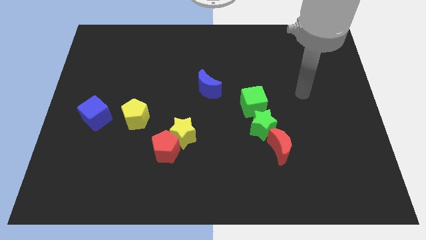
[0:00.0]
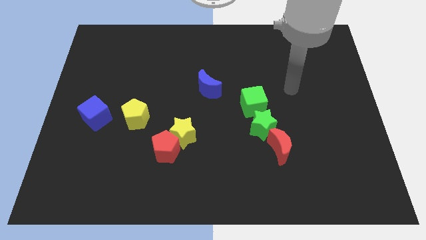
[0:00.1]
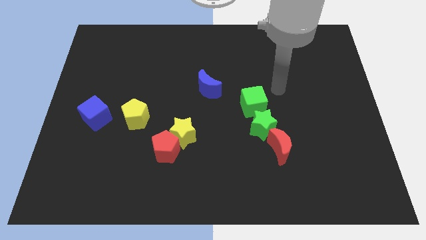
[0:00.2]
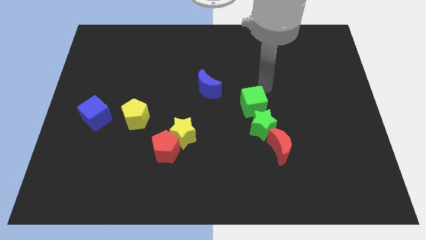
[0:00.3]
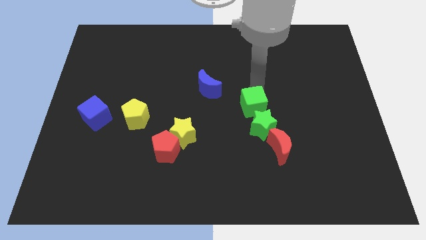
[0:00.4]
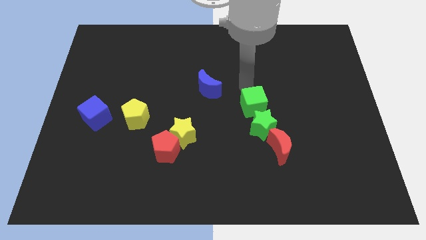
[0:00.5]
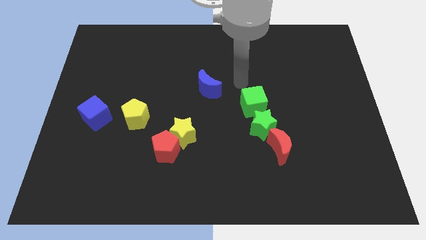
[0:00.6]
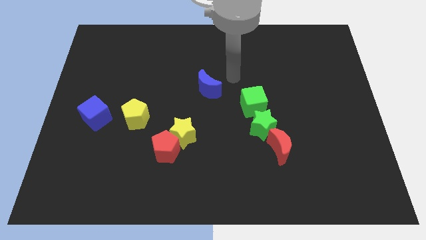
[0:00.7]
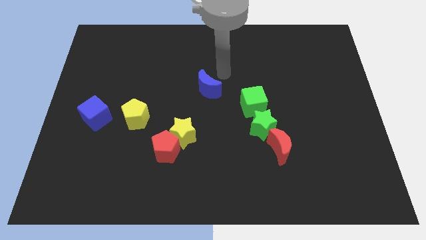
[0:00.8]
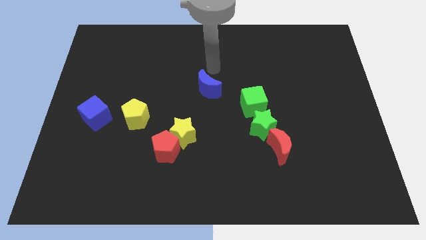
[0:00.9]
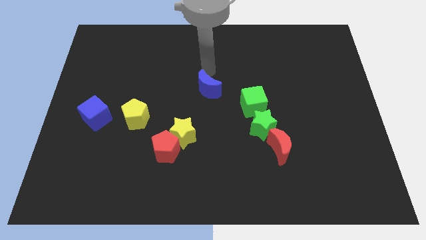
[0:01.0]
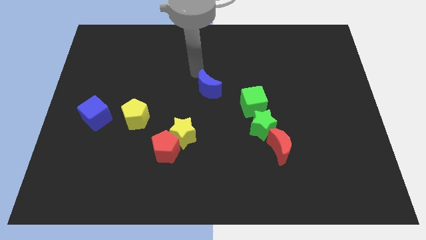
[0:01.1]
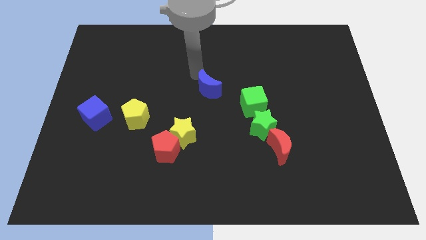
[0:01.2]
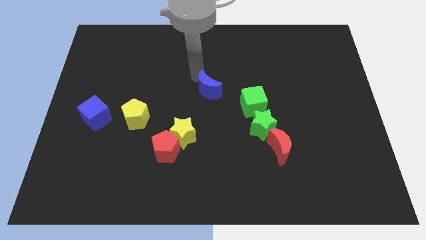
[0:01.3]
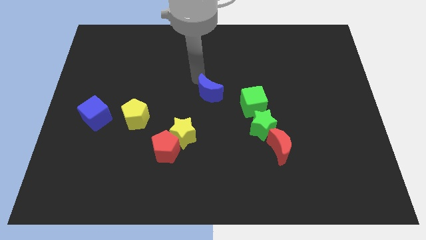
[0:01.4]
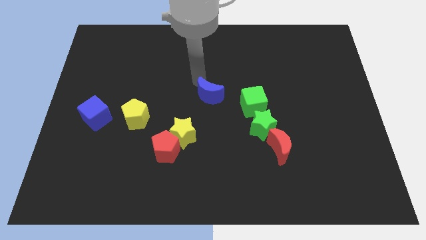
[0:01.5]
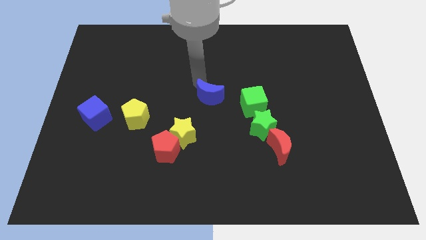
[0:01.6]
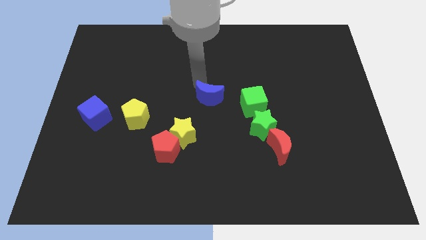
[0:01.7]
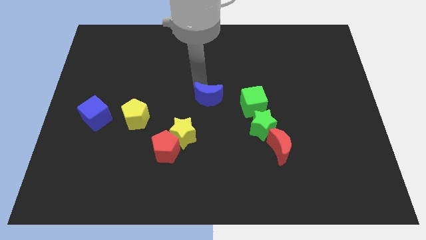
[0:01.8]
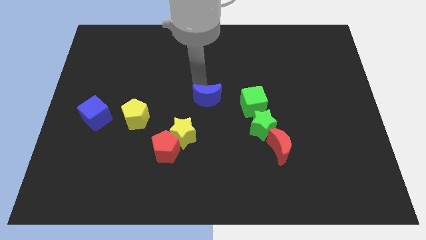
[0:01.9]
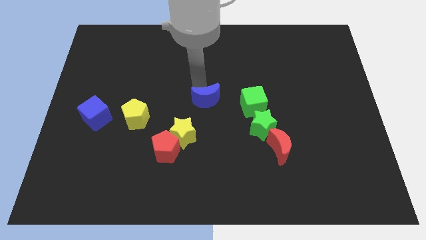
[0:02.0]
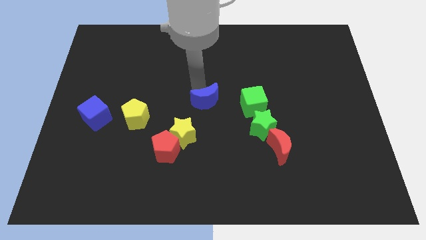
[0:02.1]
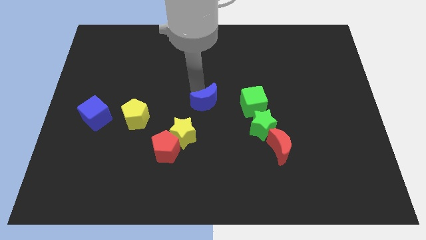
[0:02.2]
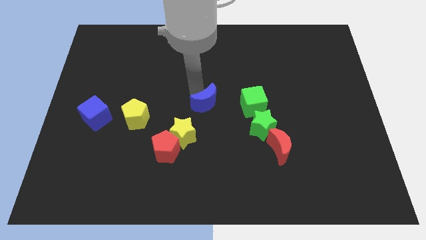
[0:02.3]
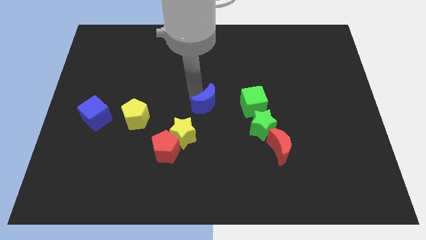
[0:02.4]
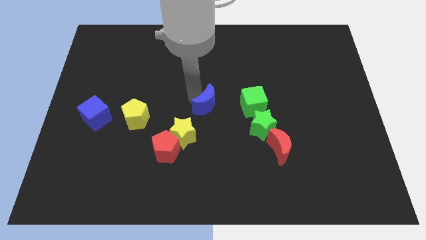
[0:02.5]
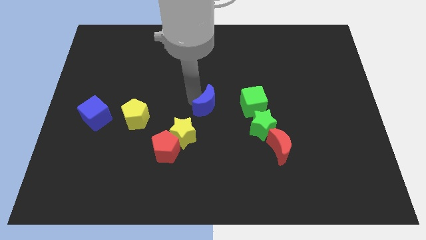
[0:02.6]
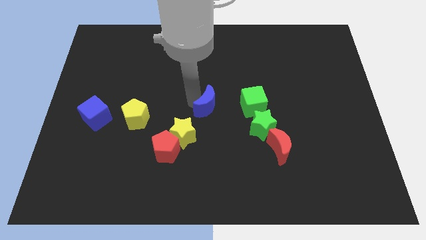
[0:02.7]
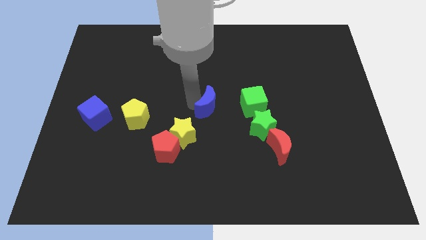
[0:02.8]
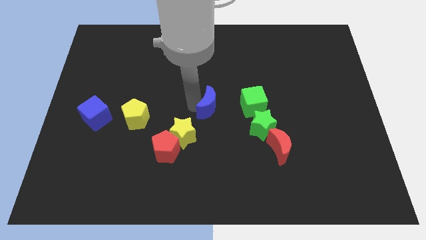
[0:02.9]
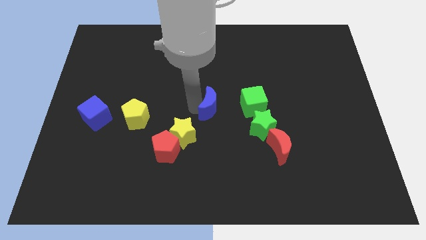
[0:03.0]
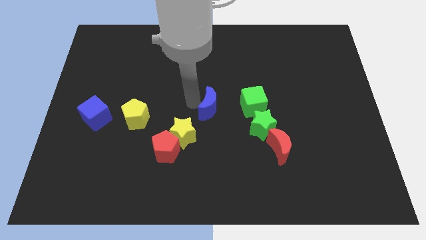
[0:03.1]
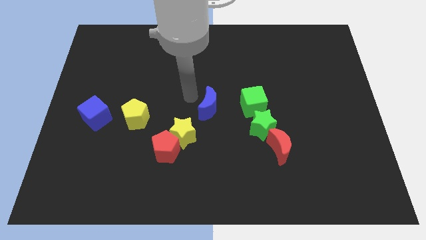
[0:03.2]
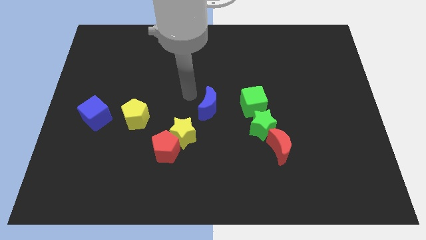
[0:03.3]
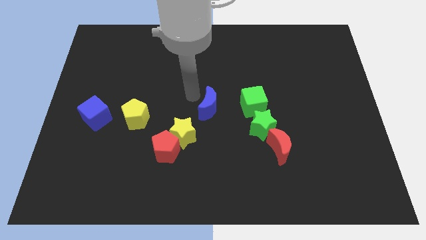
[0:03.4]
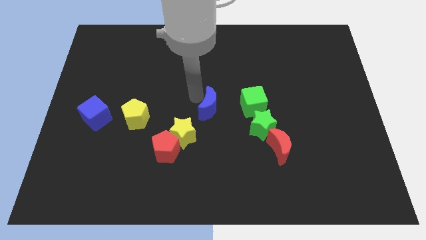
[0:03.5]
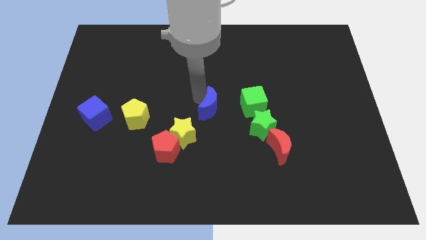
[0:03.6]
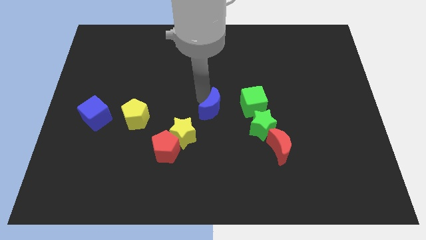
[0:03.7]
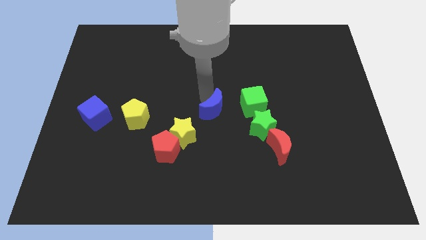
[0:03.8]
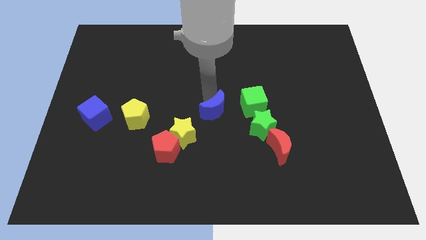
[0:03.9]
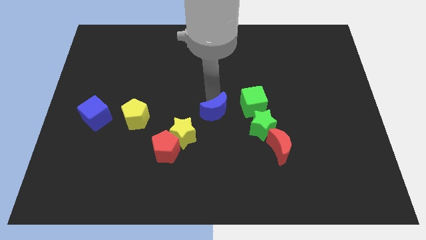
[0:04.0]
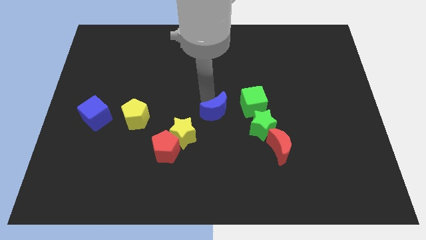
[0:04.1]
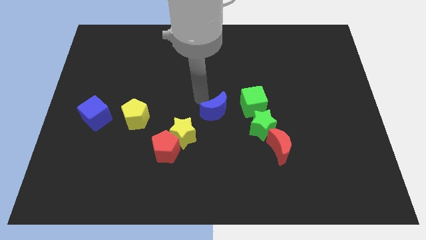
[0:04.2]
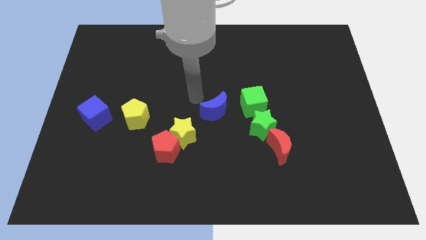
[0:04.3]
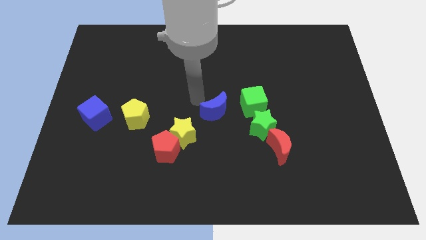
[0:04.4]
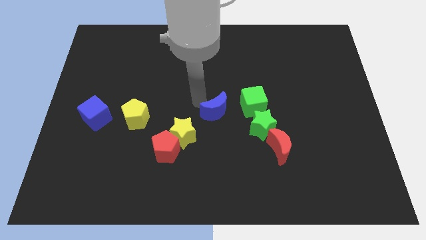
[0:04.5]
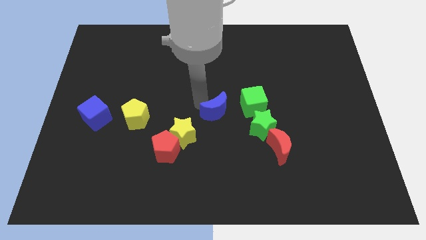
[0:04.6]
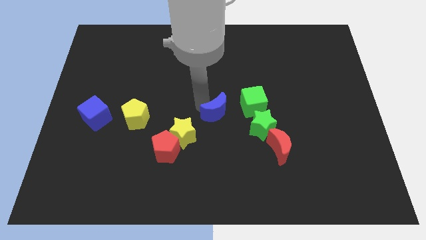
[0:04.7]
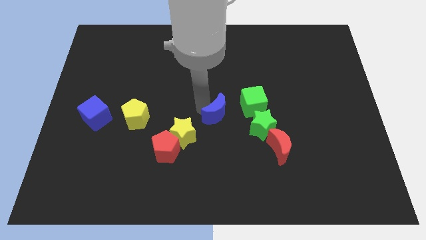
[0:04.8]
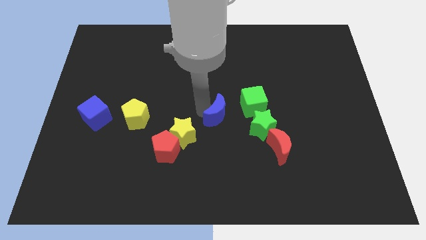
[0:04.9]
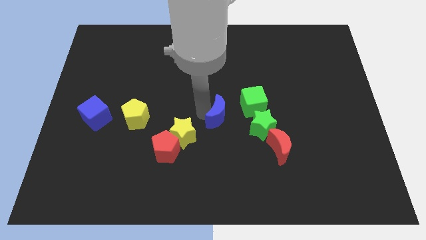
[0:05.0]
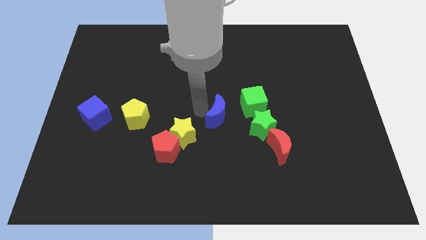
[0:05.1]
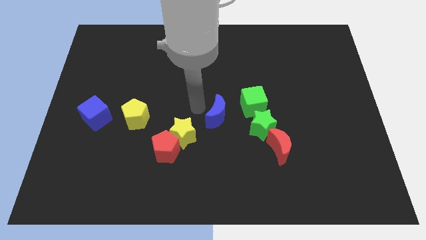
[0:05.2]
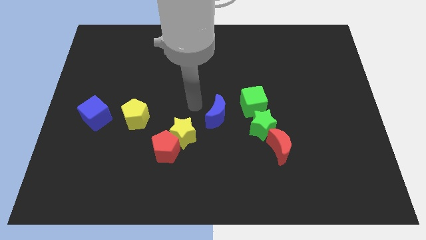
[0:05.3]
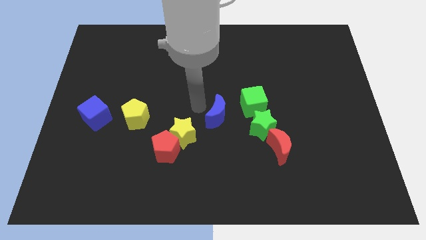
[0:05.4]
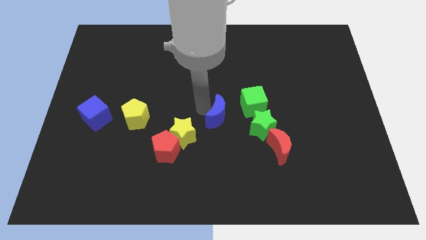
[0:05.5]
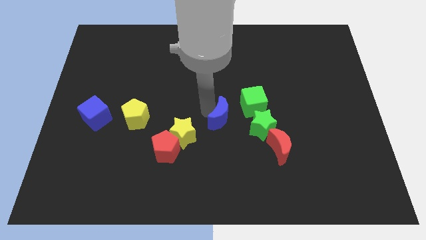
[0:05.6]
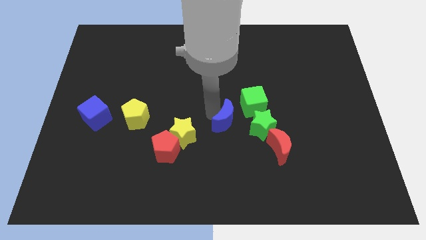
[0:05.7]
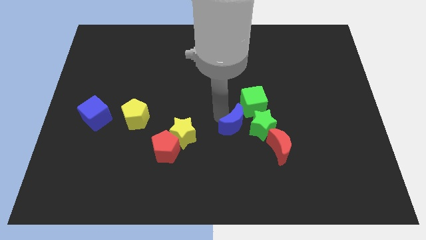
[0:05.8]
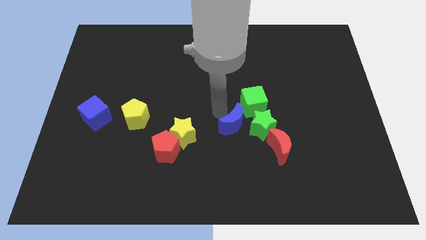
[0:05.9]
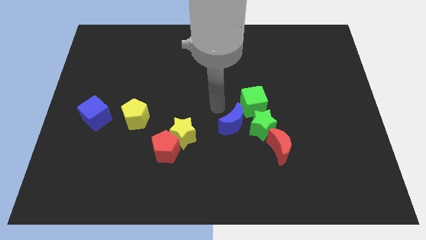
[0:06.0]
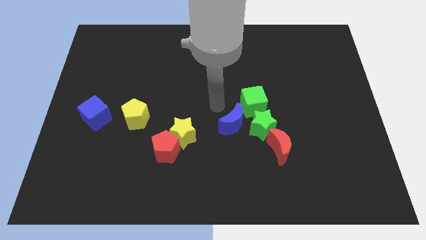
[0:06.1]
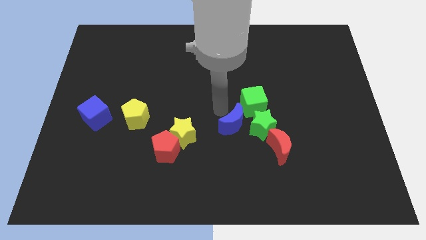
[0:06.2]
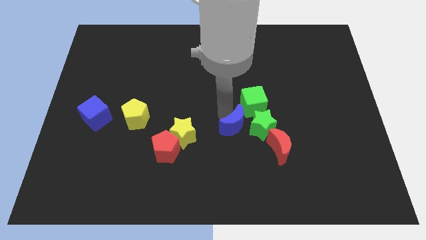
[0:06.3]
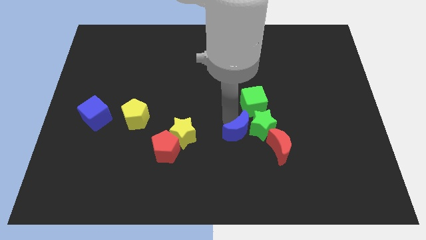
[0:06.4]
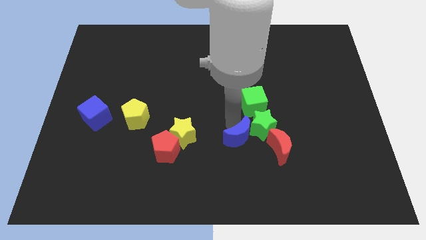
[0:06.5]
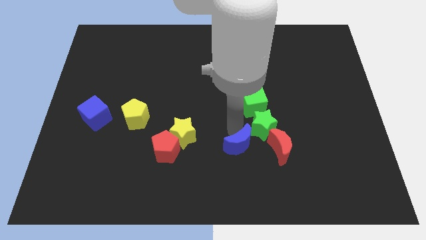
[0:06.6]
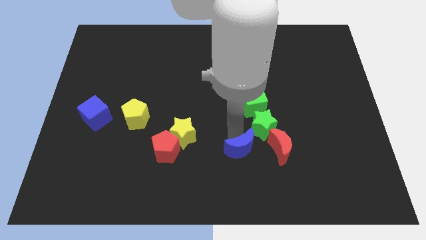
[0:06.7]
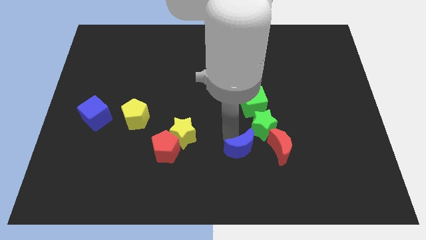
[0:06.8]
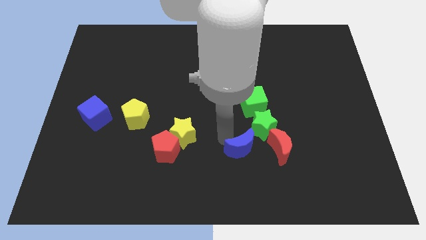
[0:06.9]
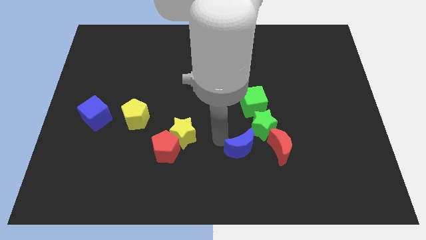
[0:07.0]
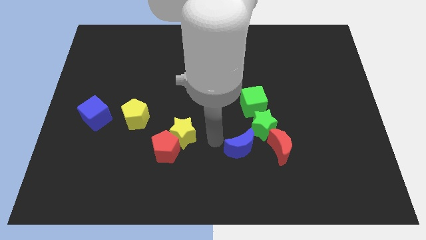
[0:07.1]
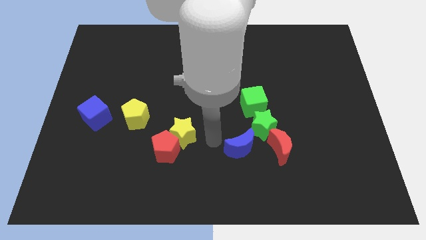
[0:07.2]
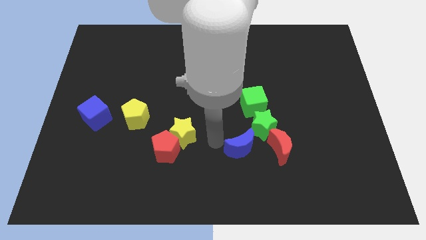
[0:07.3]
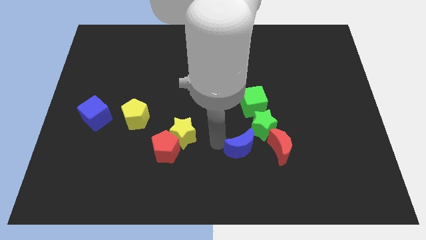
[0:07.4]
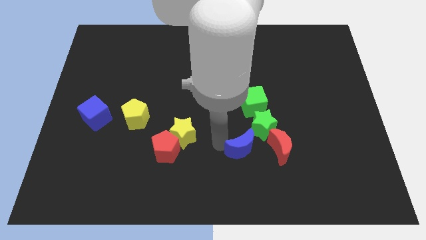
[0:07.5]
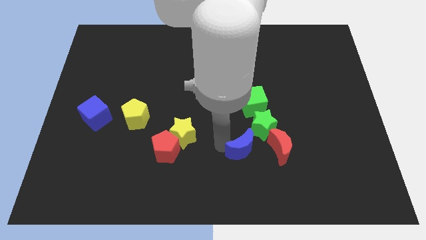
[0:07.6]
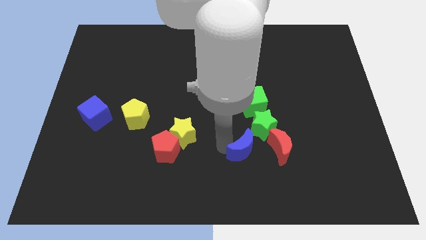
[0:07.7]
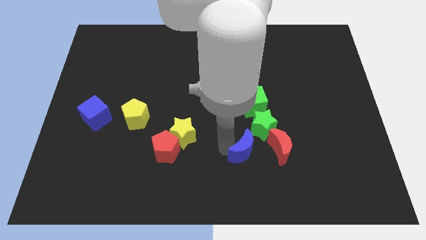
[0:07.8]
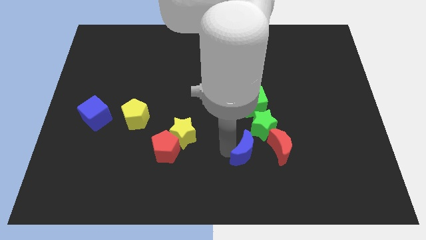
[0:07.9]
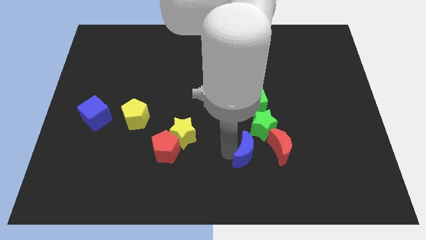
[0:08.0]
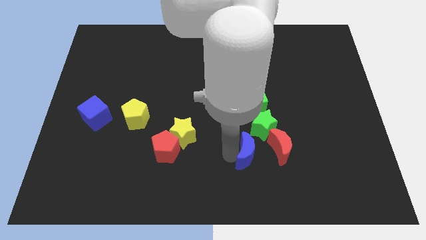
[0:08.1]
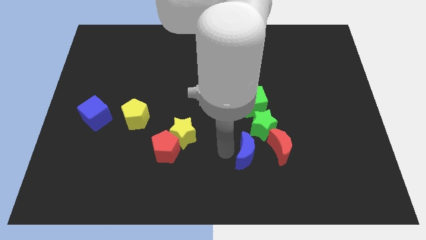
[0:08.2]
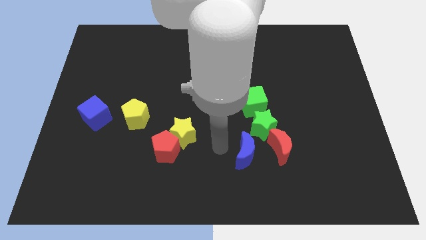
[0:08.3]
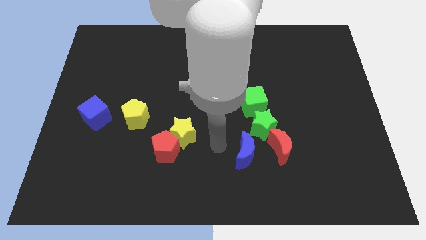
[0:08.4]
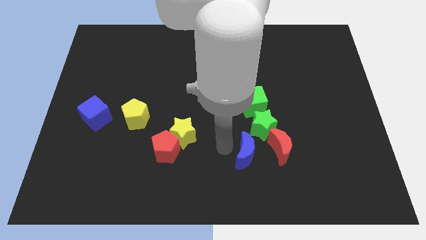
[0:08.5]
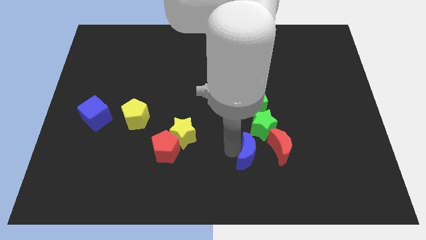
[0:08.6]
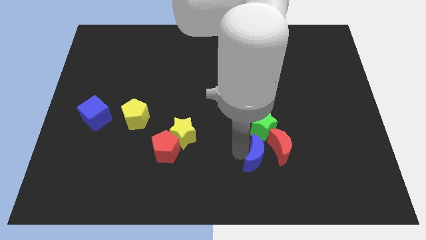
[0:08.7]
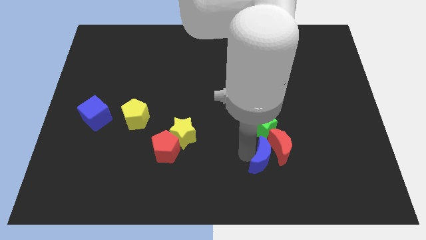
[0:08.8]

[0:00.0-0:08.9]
push the blue moon down and to the right
